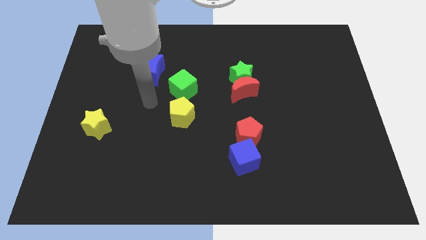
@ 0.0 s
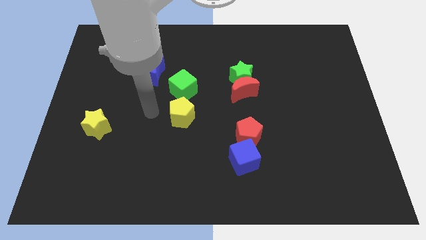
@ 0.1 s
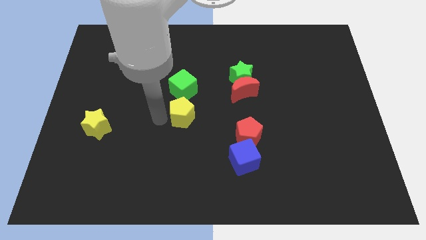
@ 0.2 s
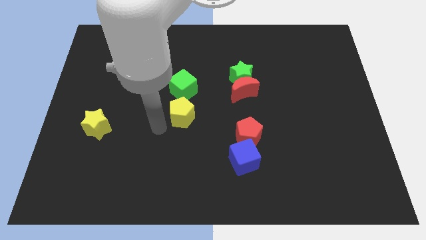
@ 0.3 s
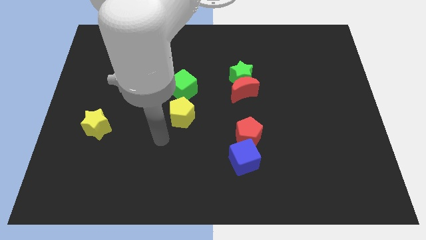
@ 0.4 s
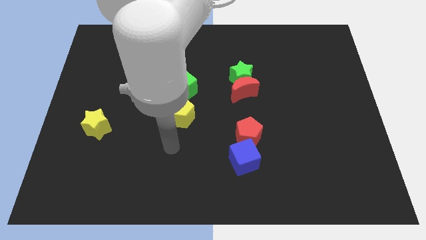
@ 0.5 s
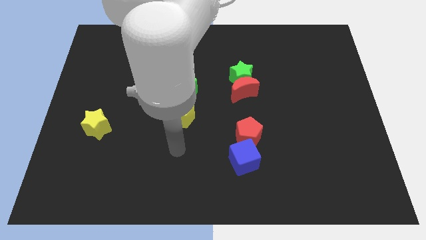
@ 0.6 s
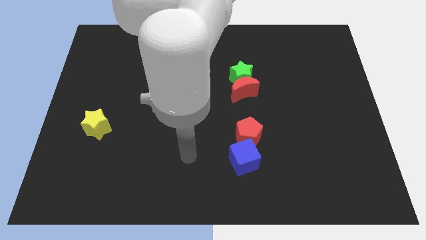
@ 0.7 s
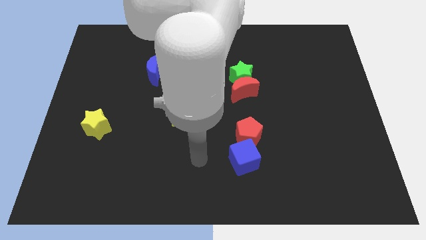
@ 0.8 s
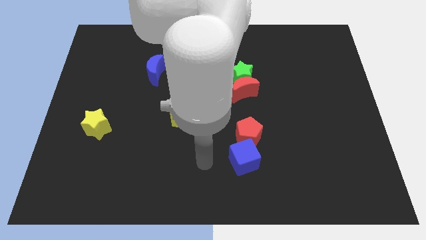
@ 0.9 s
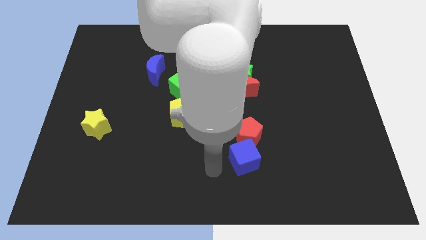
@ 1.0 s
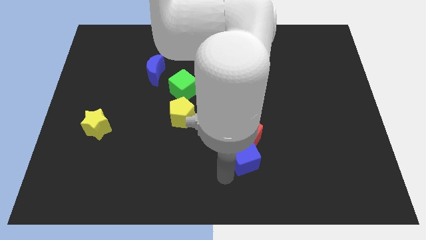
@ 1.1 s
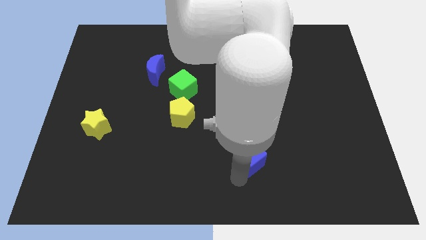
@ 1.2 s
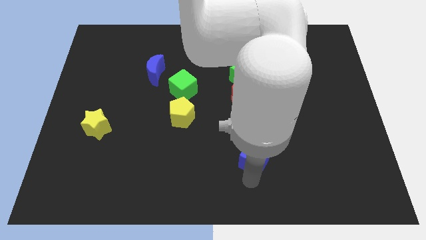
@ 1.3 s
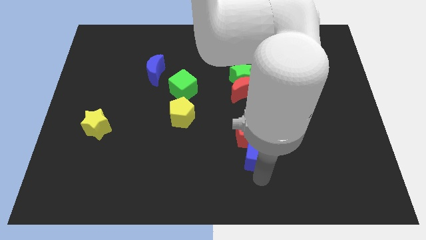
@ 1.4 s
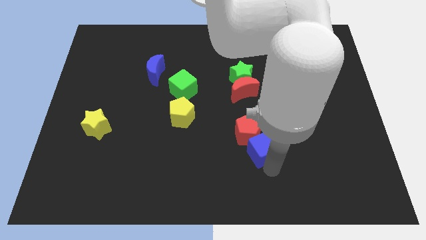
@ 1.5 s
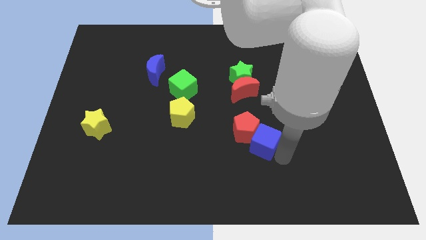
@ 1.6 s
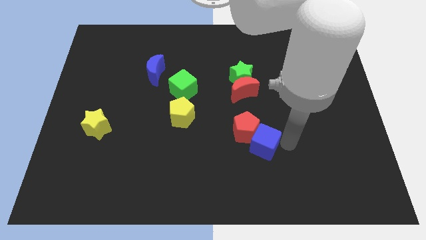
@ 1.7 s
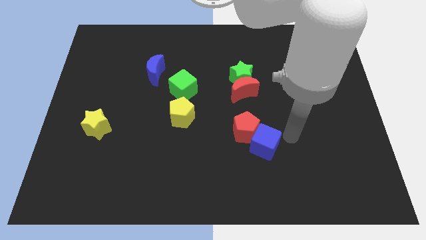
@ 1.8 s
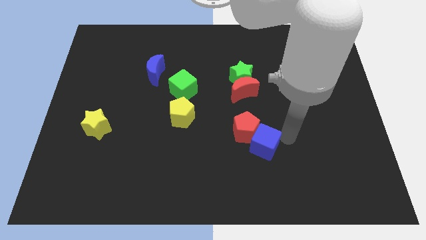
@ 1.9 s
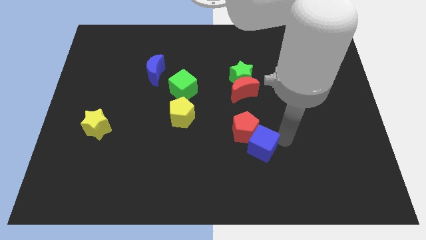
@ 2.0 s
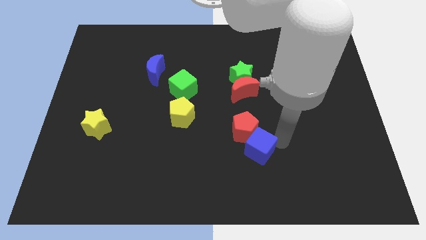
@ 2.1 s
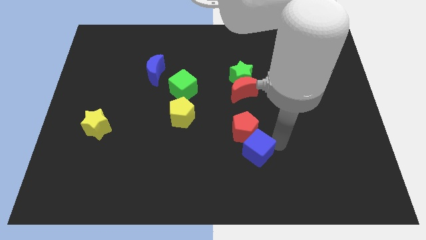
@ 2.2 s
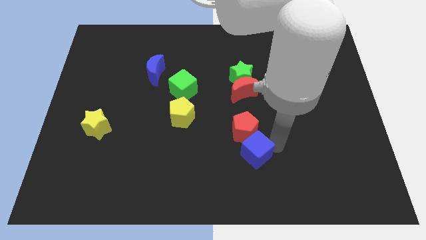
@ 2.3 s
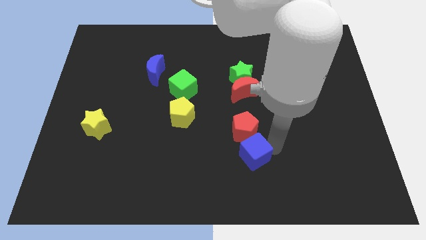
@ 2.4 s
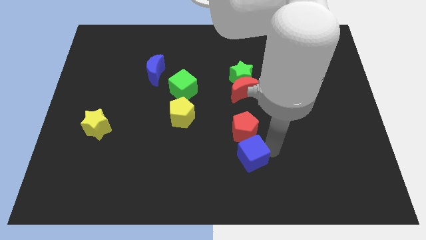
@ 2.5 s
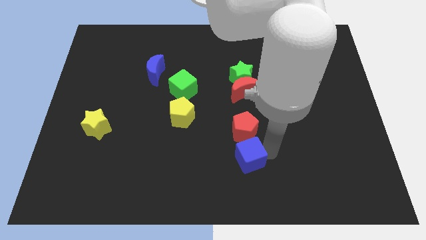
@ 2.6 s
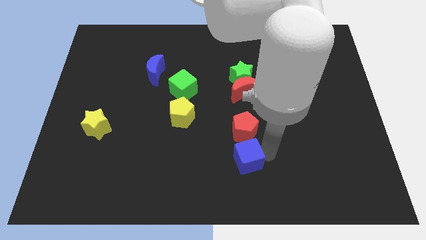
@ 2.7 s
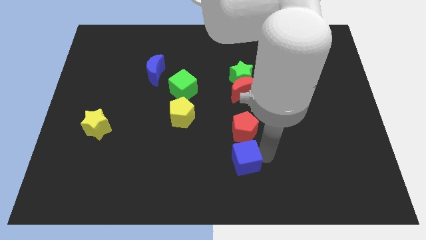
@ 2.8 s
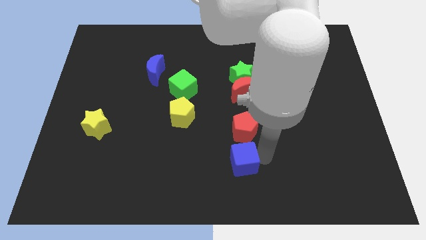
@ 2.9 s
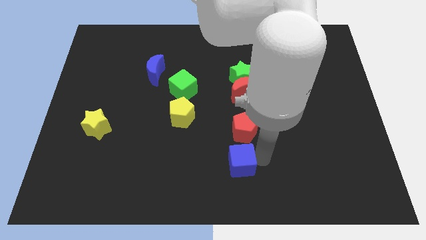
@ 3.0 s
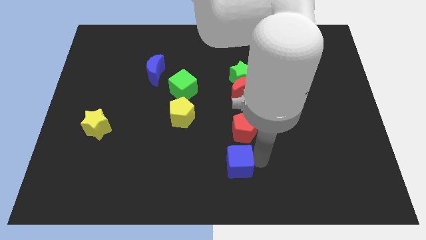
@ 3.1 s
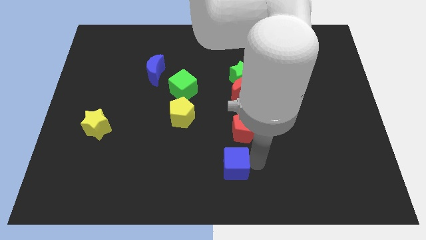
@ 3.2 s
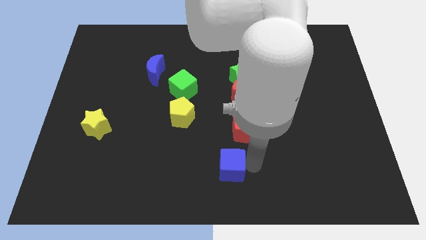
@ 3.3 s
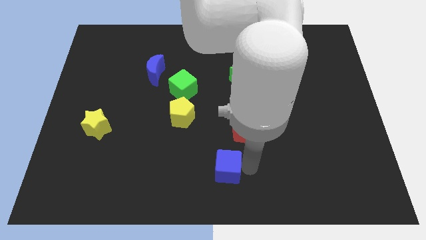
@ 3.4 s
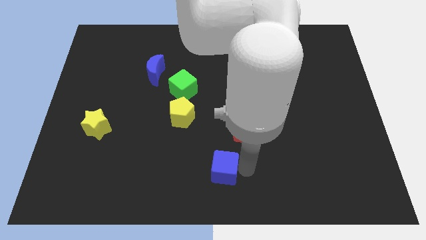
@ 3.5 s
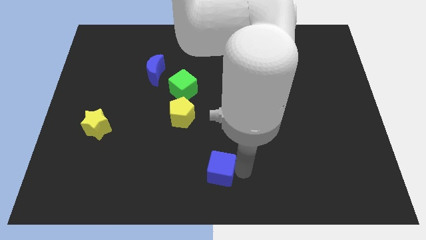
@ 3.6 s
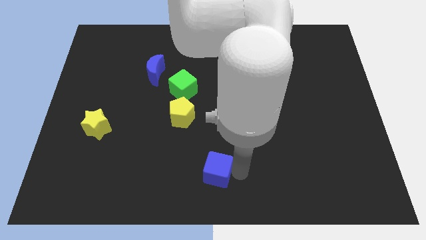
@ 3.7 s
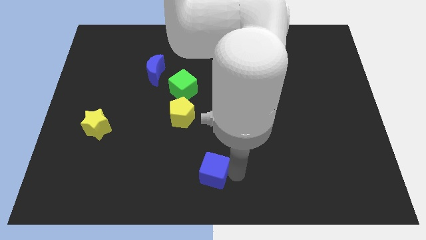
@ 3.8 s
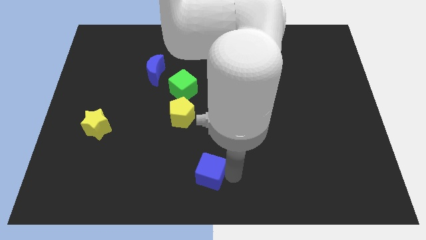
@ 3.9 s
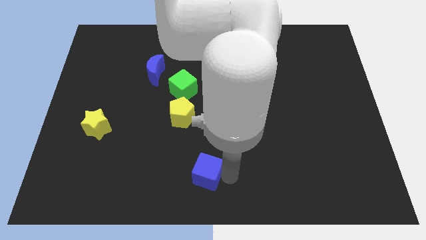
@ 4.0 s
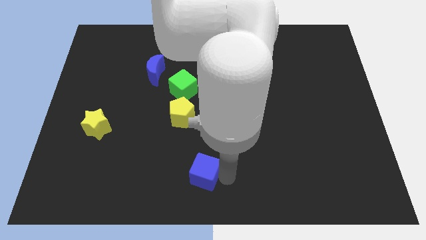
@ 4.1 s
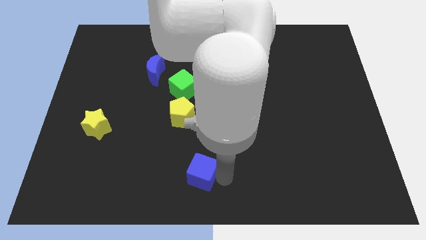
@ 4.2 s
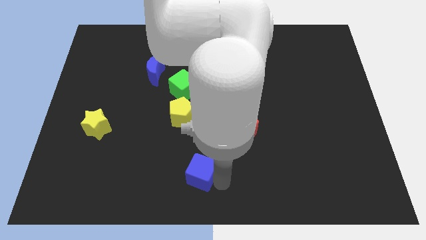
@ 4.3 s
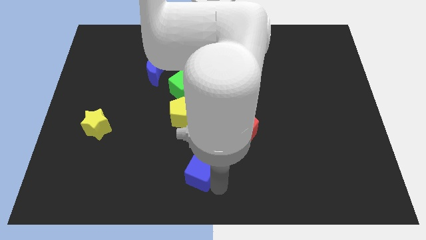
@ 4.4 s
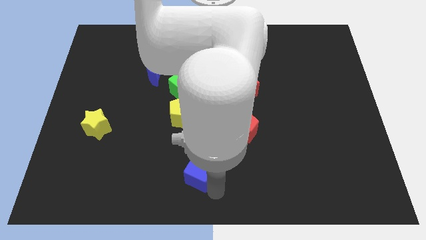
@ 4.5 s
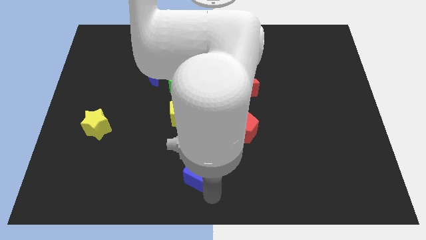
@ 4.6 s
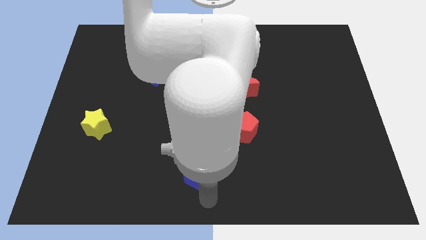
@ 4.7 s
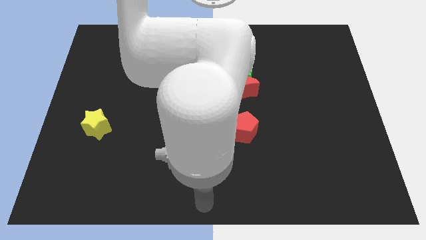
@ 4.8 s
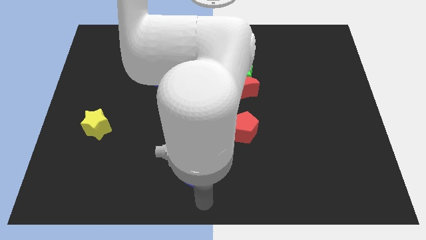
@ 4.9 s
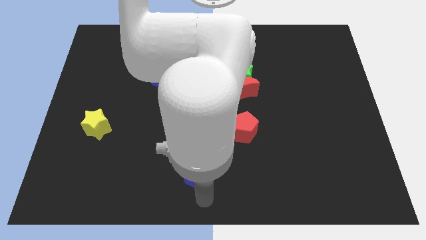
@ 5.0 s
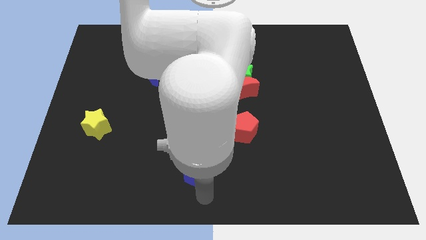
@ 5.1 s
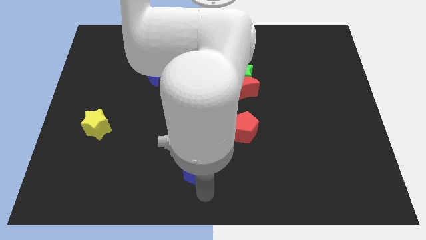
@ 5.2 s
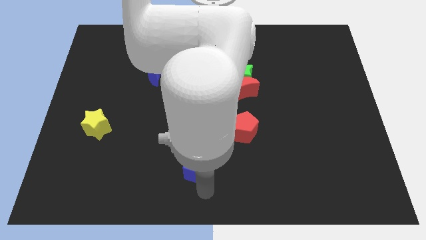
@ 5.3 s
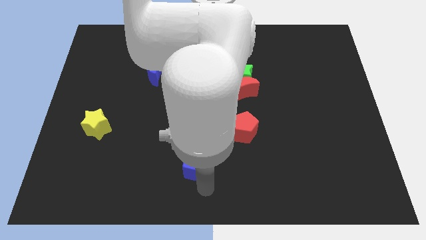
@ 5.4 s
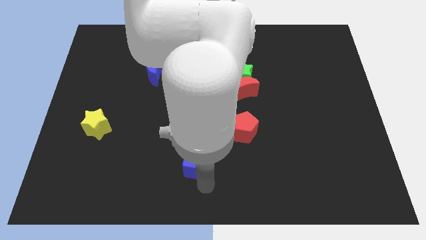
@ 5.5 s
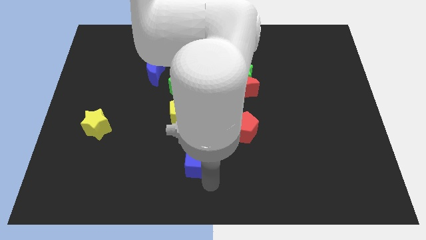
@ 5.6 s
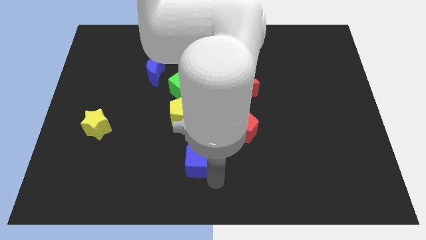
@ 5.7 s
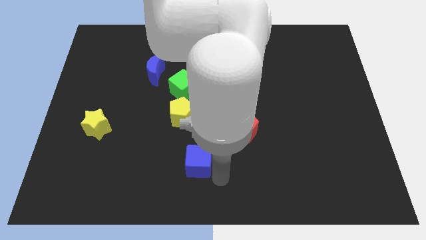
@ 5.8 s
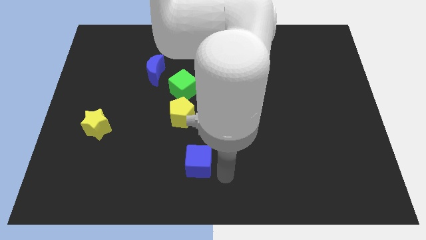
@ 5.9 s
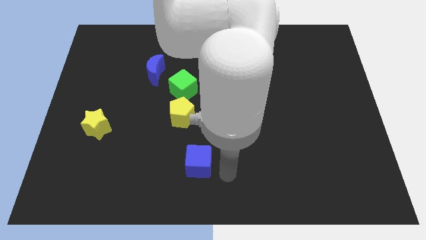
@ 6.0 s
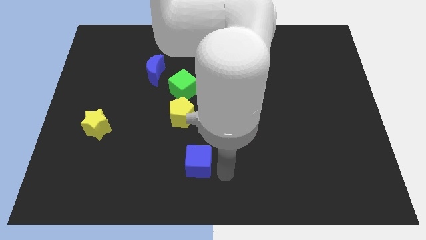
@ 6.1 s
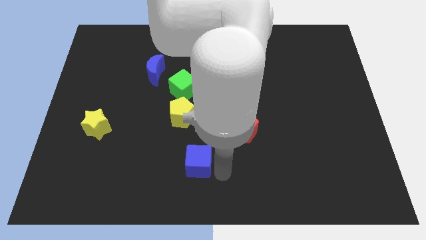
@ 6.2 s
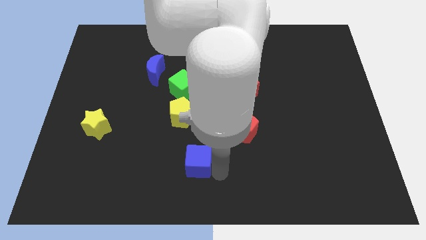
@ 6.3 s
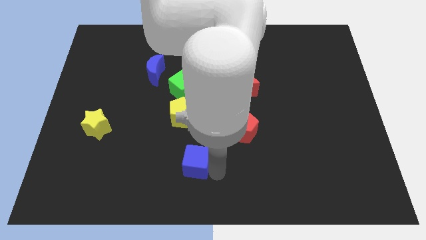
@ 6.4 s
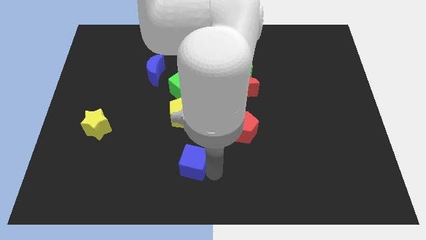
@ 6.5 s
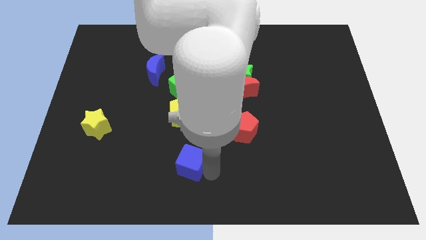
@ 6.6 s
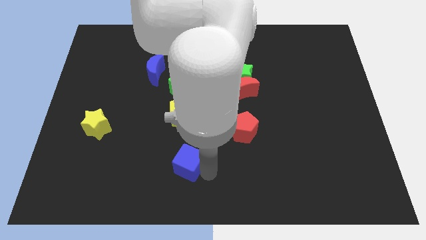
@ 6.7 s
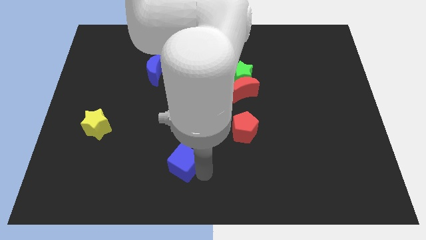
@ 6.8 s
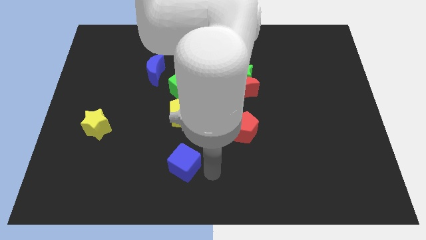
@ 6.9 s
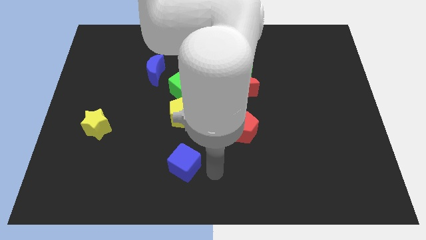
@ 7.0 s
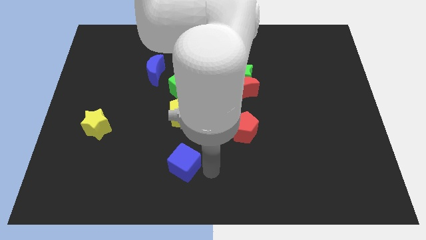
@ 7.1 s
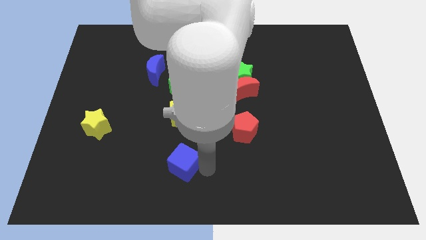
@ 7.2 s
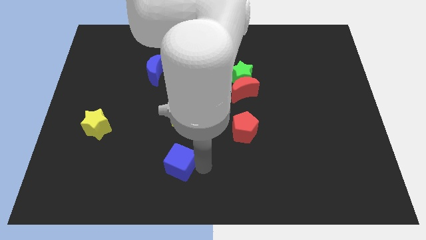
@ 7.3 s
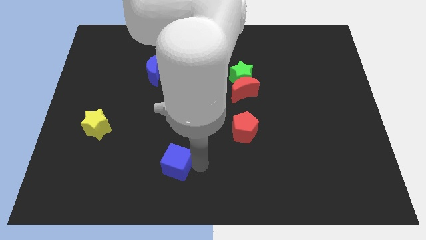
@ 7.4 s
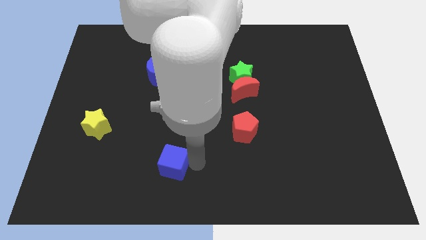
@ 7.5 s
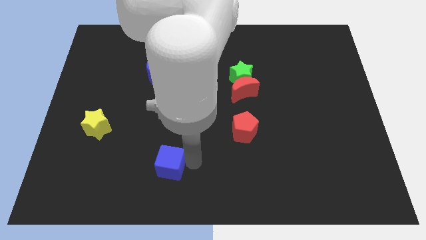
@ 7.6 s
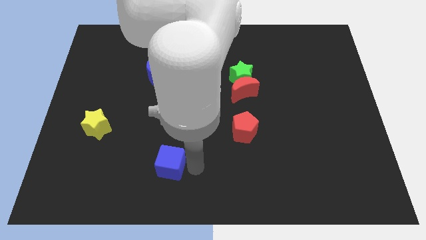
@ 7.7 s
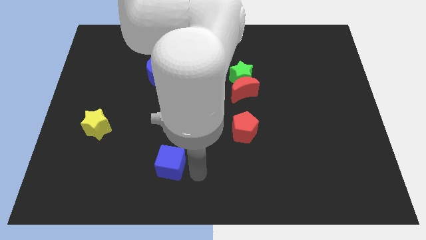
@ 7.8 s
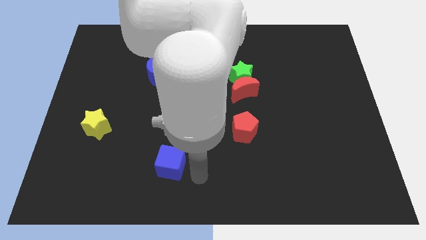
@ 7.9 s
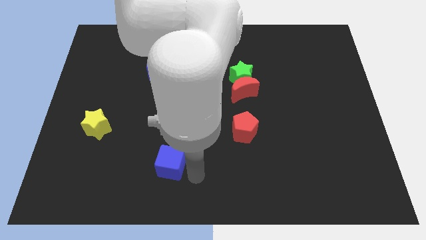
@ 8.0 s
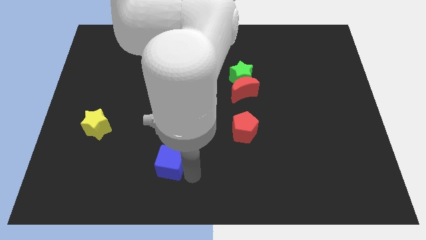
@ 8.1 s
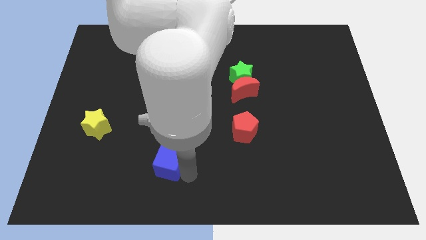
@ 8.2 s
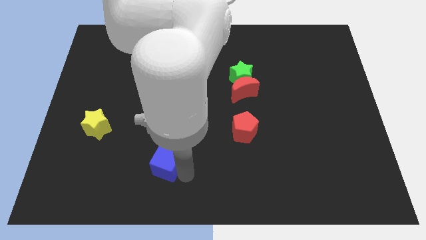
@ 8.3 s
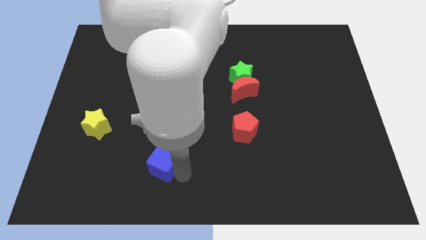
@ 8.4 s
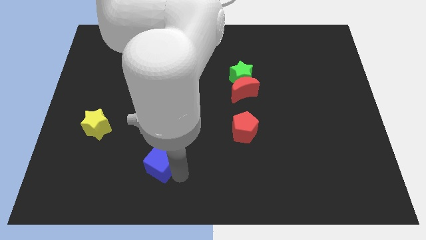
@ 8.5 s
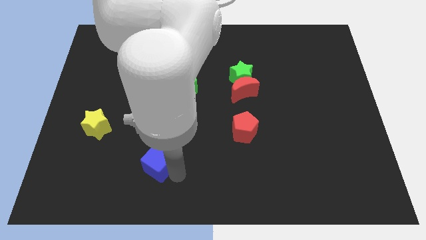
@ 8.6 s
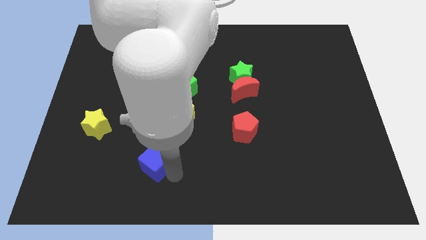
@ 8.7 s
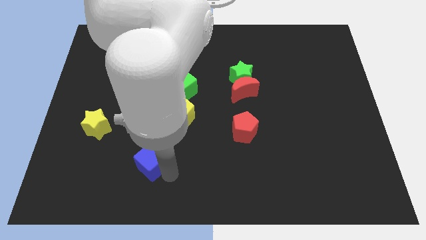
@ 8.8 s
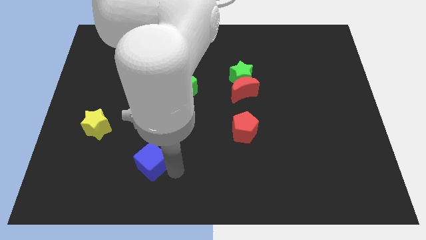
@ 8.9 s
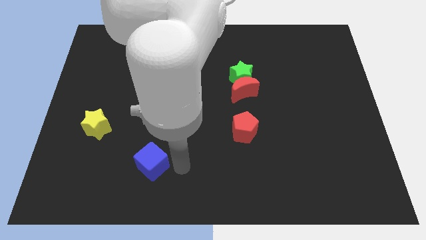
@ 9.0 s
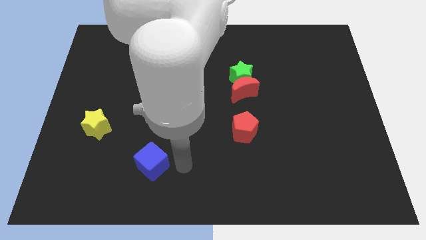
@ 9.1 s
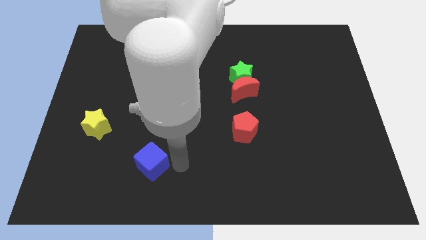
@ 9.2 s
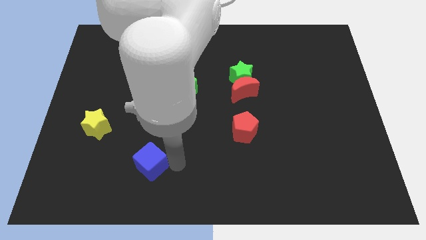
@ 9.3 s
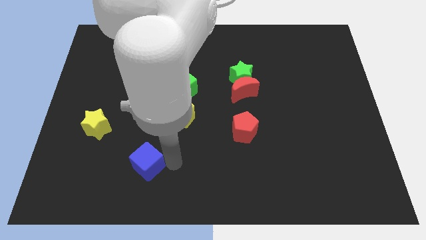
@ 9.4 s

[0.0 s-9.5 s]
slide the blue cube to the left
